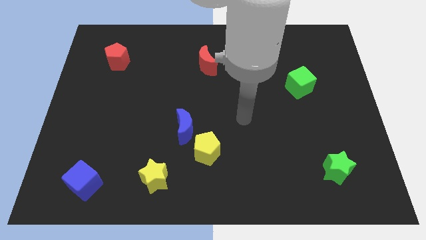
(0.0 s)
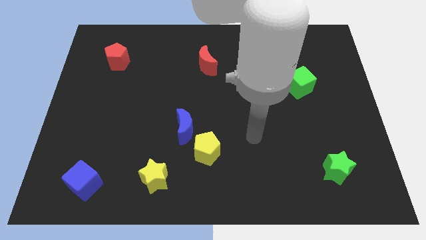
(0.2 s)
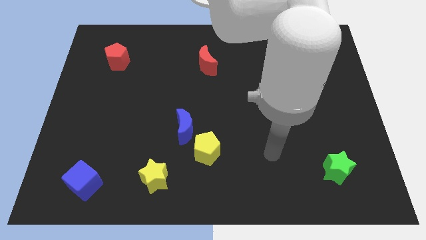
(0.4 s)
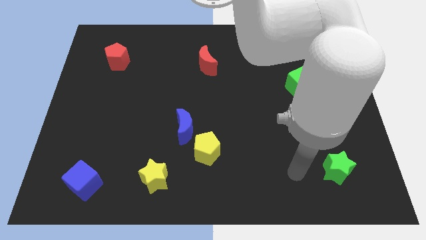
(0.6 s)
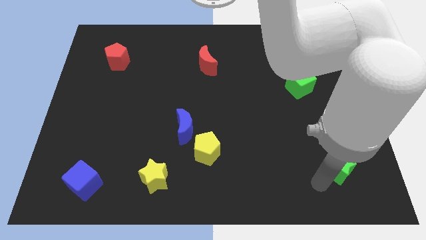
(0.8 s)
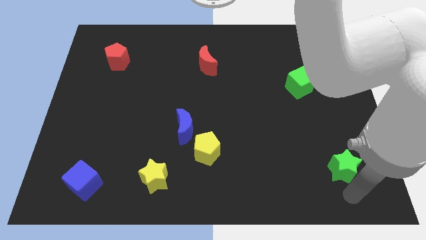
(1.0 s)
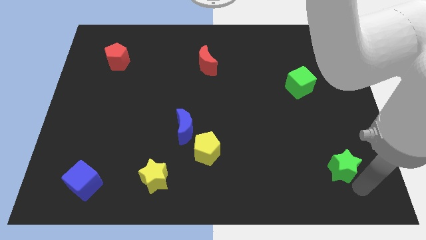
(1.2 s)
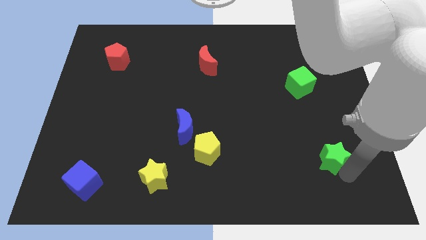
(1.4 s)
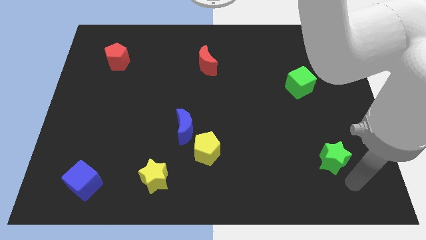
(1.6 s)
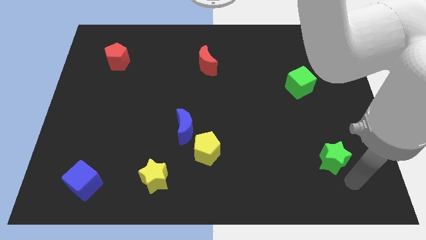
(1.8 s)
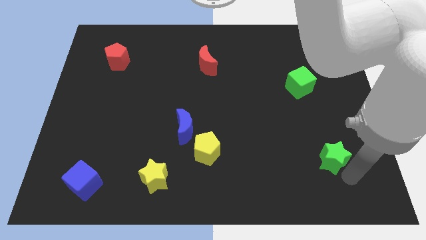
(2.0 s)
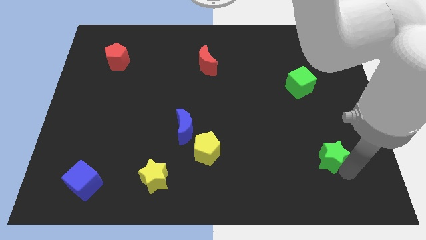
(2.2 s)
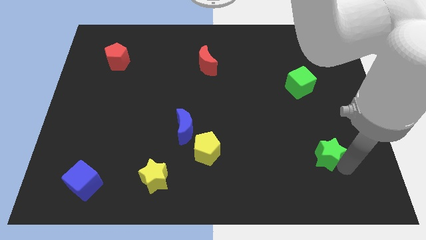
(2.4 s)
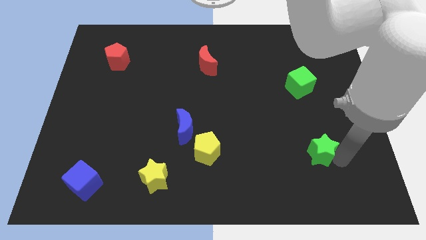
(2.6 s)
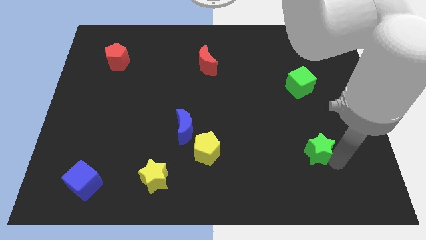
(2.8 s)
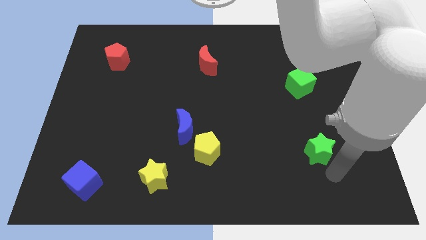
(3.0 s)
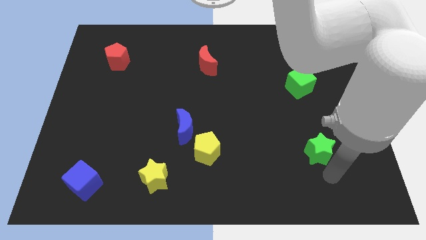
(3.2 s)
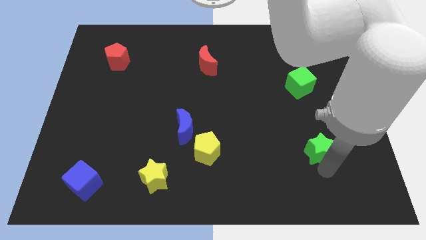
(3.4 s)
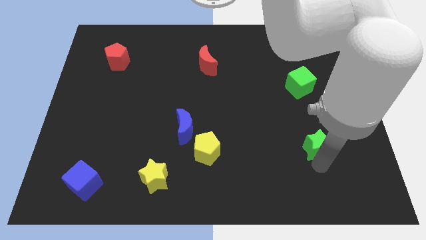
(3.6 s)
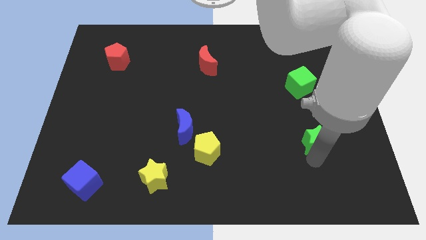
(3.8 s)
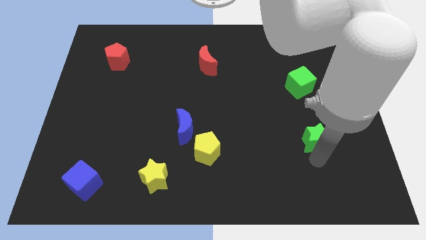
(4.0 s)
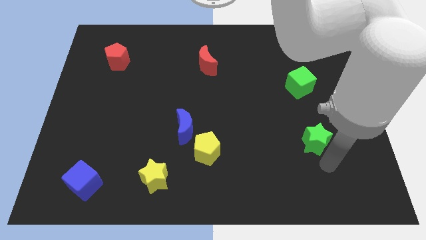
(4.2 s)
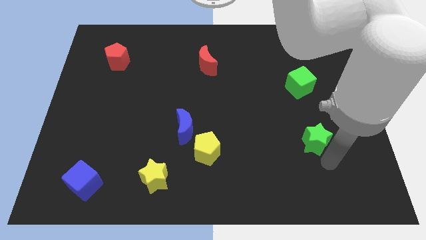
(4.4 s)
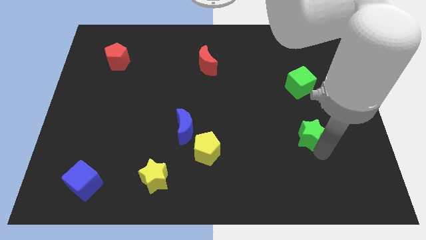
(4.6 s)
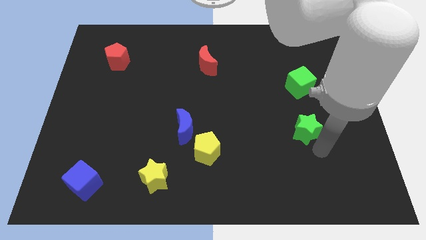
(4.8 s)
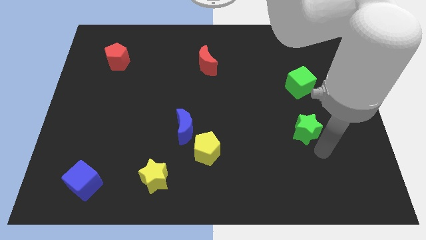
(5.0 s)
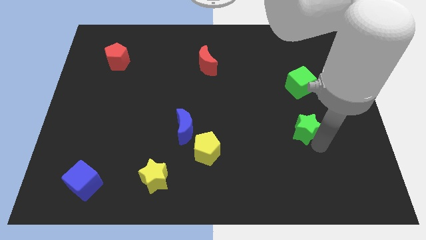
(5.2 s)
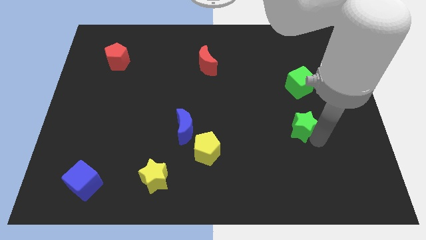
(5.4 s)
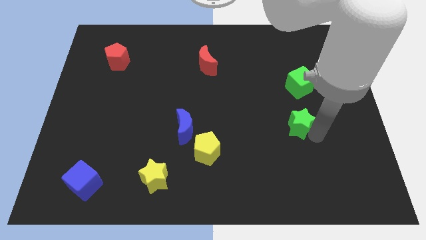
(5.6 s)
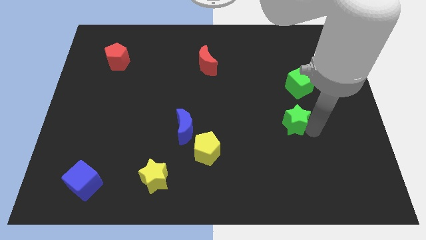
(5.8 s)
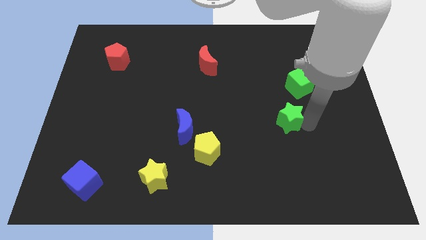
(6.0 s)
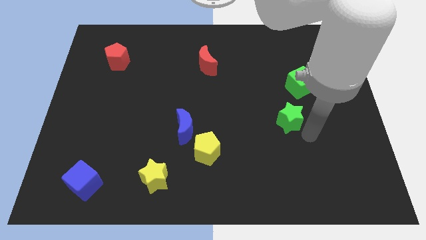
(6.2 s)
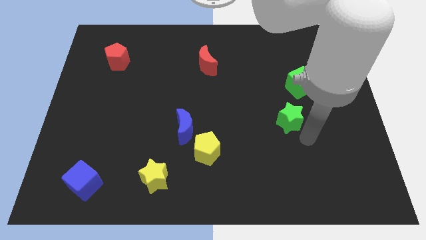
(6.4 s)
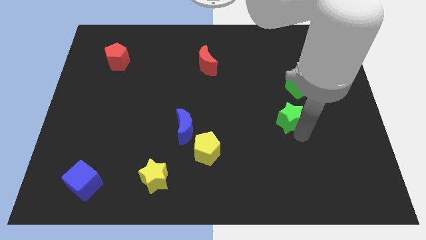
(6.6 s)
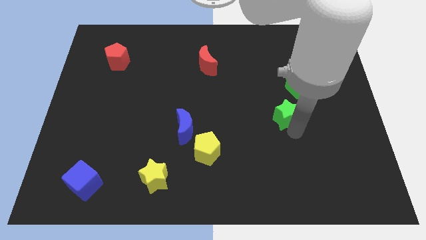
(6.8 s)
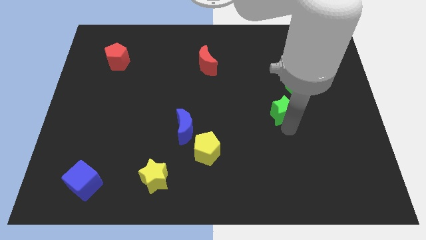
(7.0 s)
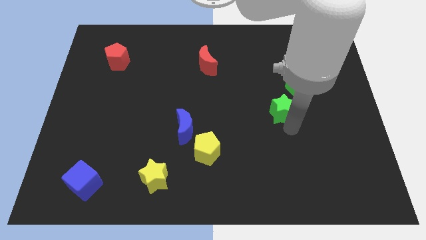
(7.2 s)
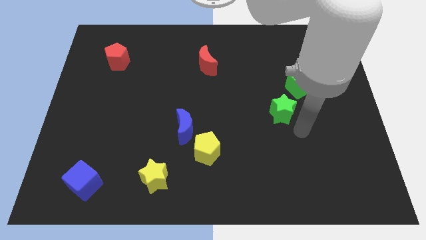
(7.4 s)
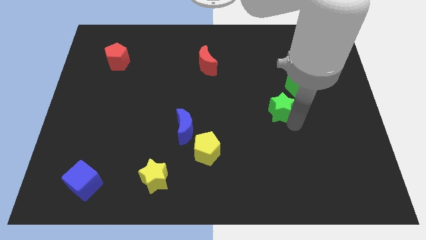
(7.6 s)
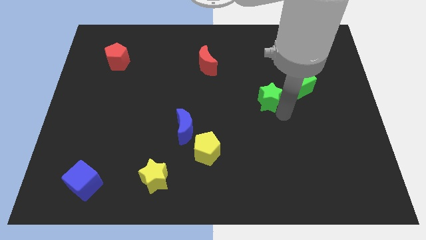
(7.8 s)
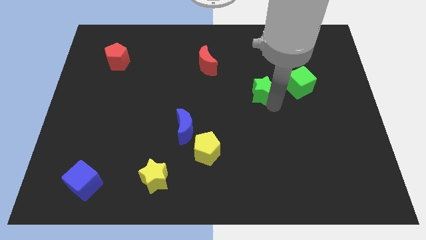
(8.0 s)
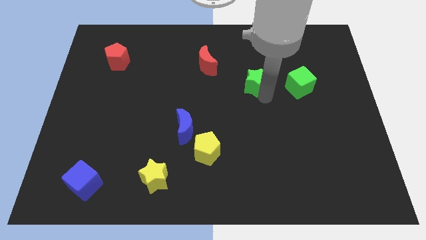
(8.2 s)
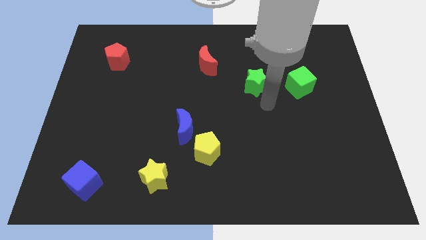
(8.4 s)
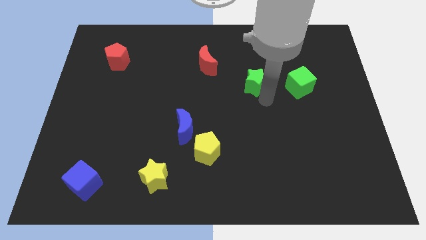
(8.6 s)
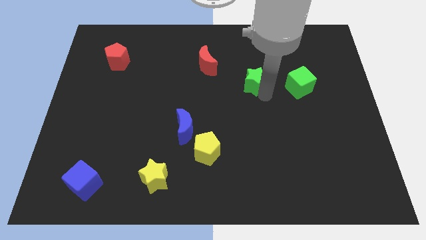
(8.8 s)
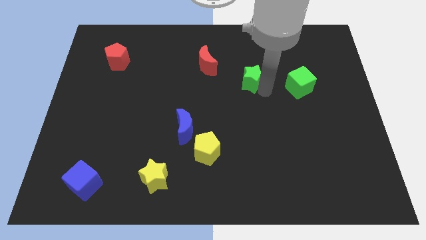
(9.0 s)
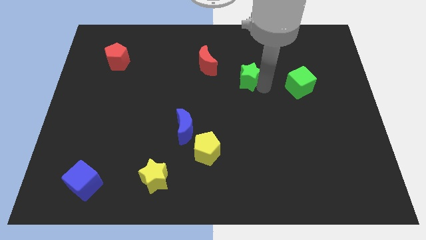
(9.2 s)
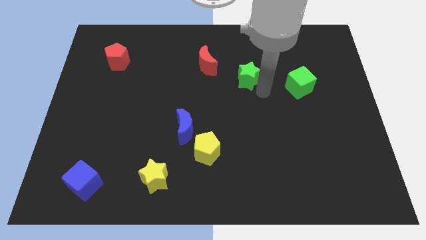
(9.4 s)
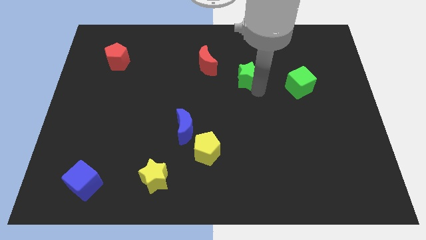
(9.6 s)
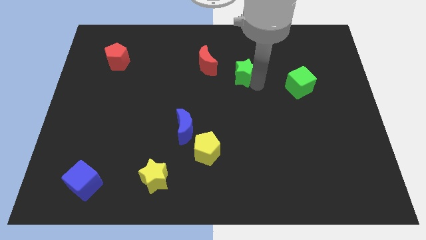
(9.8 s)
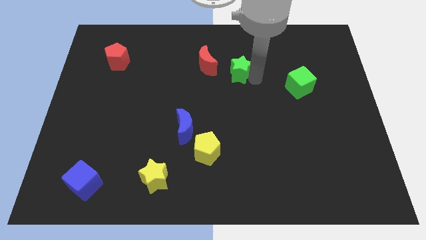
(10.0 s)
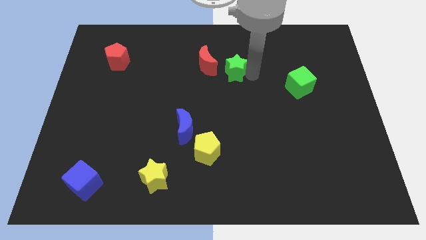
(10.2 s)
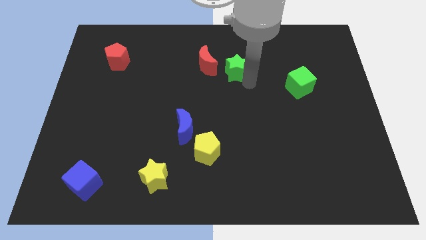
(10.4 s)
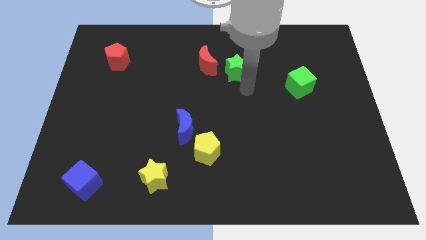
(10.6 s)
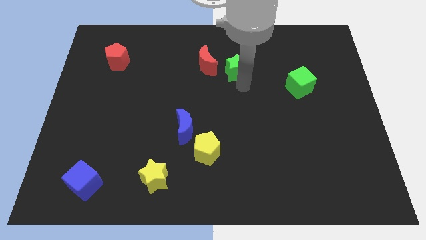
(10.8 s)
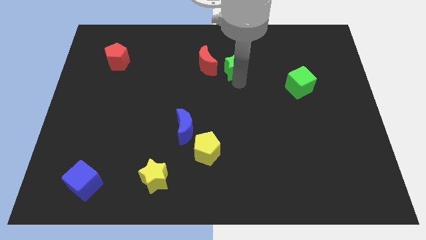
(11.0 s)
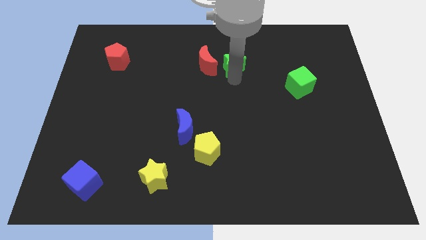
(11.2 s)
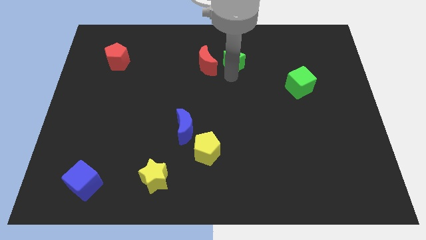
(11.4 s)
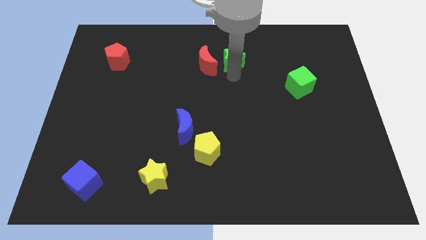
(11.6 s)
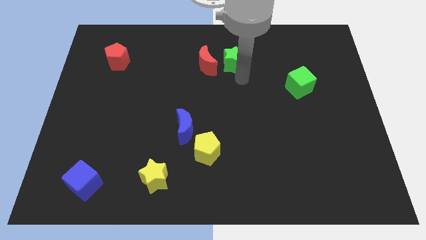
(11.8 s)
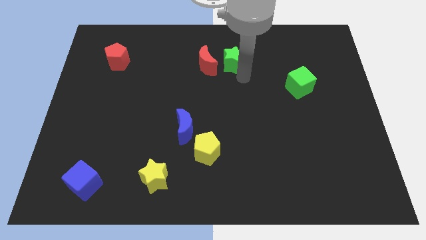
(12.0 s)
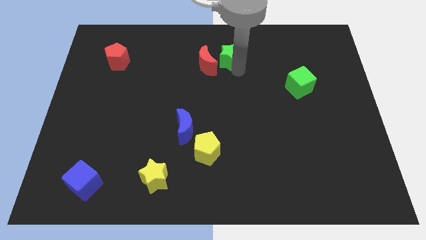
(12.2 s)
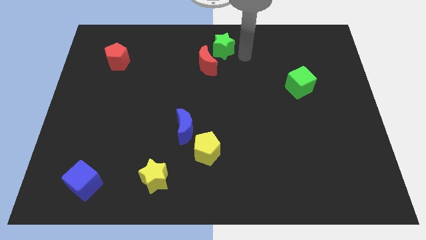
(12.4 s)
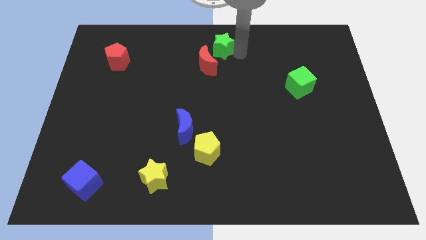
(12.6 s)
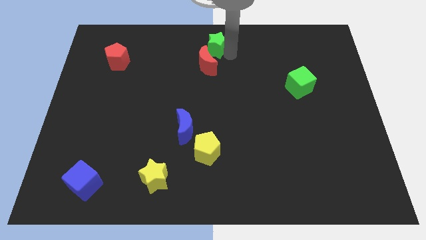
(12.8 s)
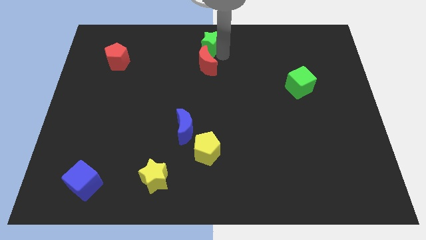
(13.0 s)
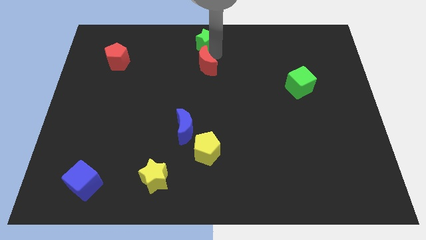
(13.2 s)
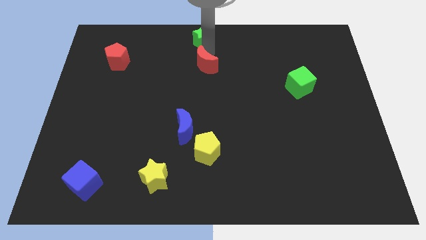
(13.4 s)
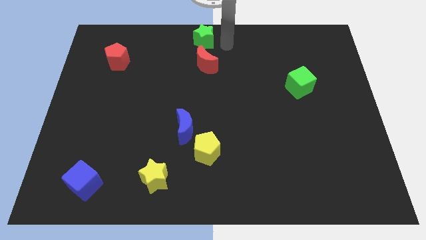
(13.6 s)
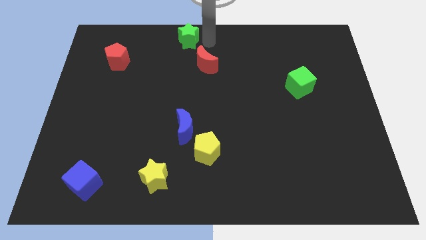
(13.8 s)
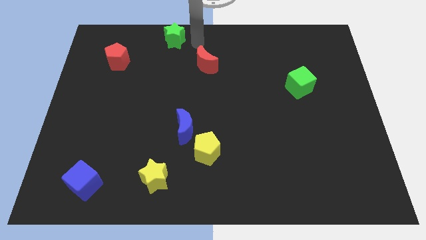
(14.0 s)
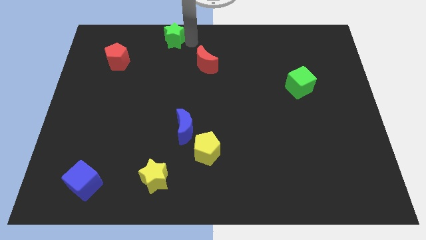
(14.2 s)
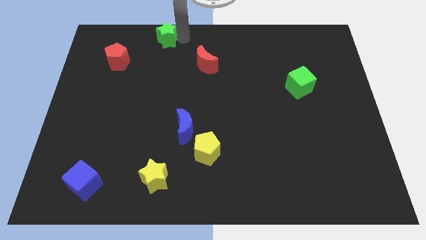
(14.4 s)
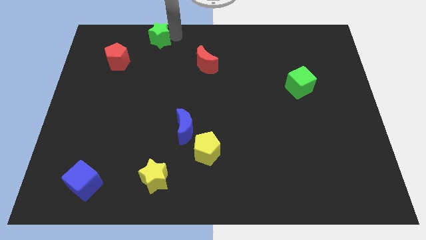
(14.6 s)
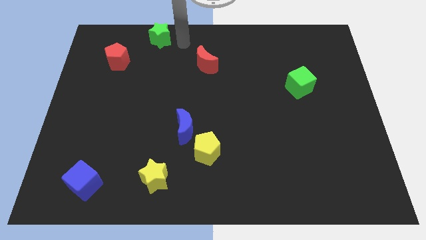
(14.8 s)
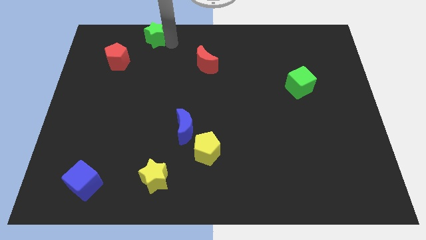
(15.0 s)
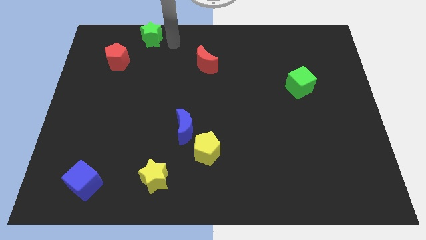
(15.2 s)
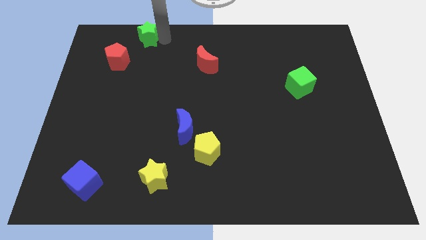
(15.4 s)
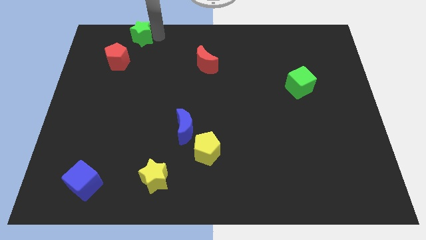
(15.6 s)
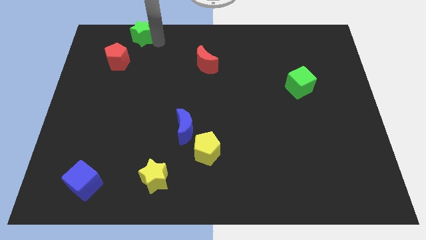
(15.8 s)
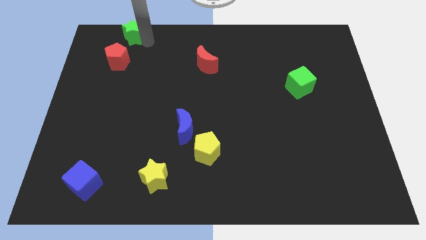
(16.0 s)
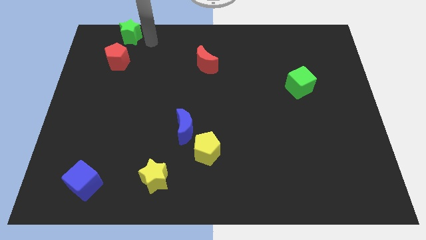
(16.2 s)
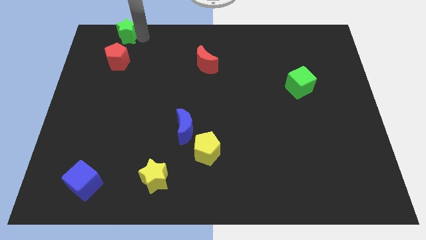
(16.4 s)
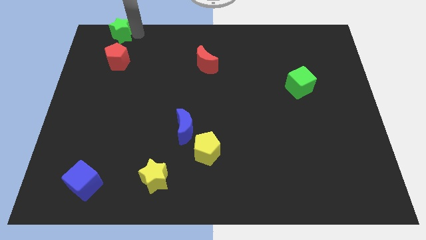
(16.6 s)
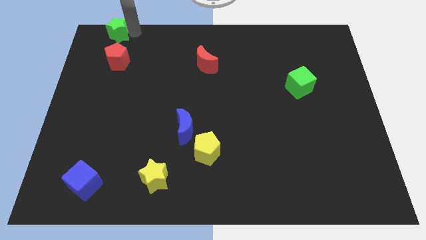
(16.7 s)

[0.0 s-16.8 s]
move the green star to the upper left corner
